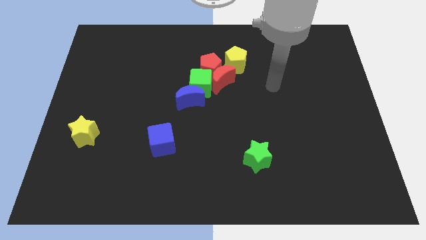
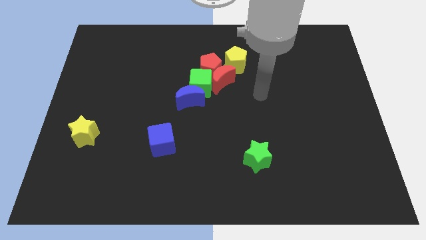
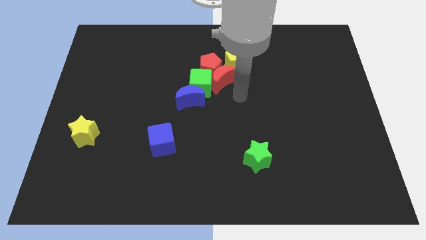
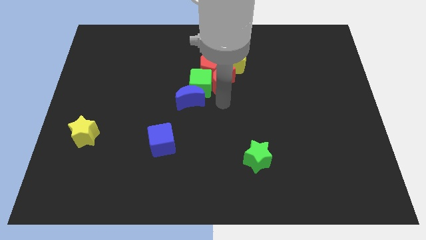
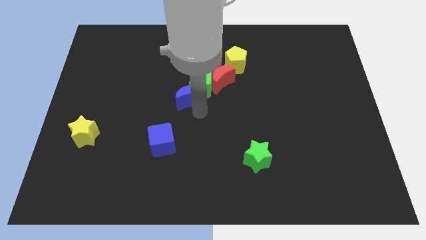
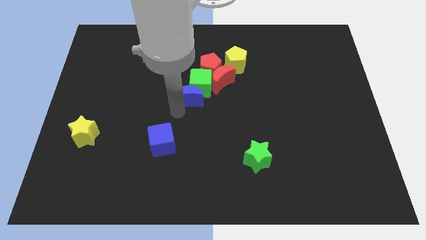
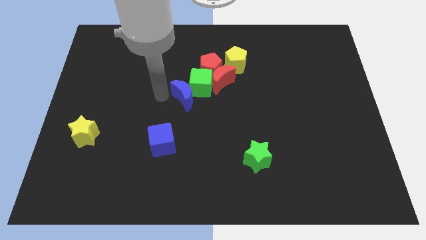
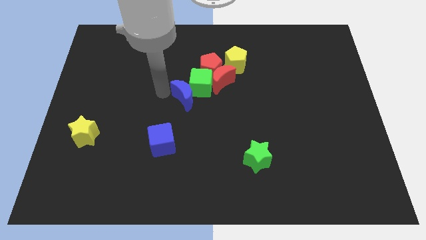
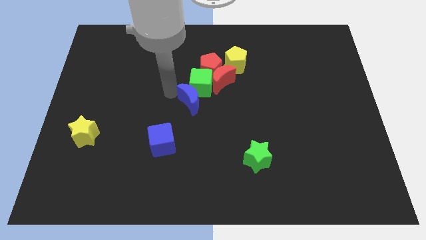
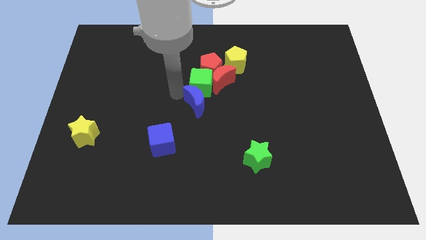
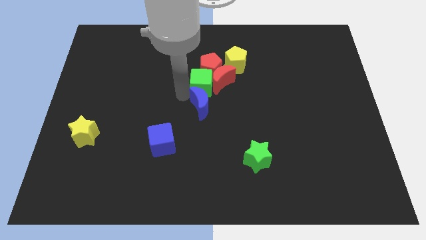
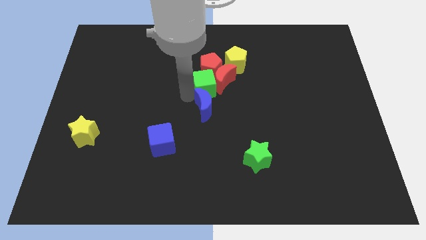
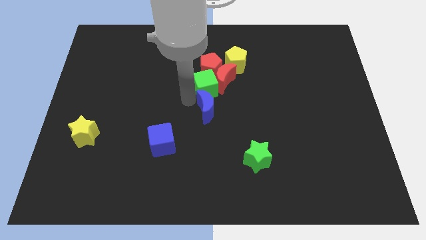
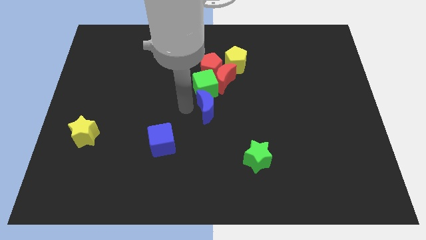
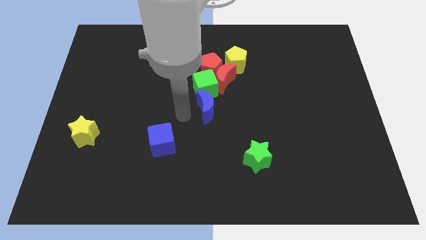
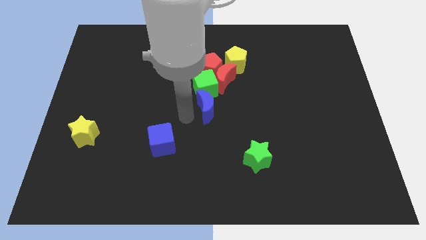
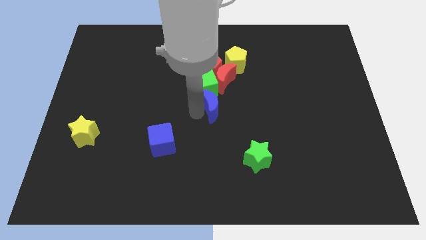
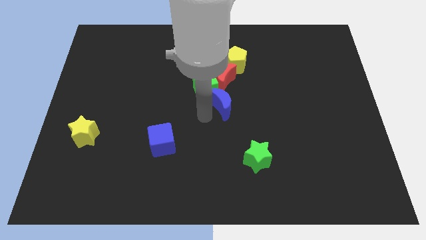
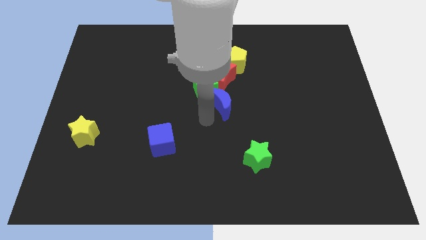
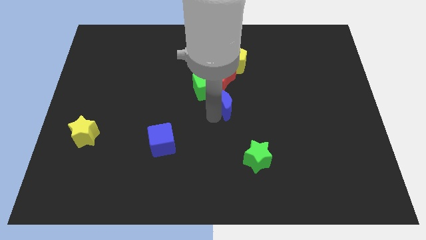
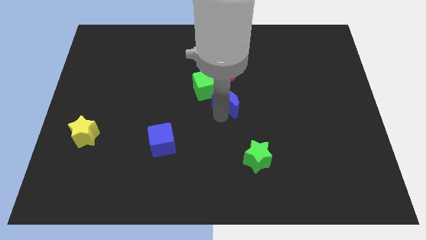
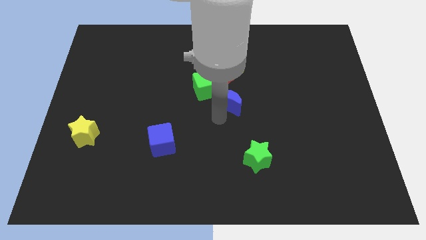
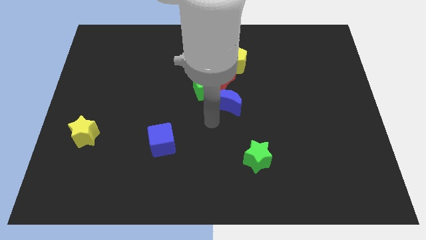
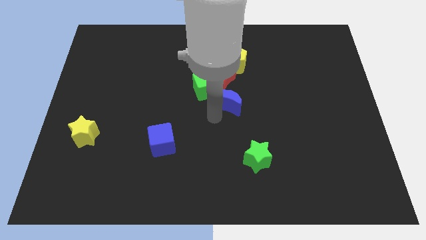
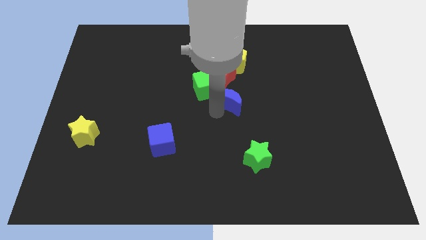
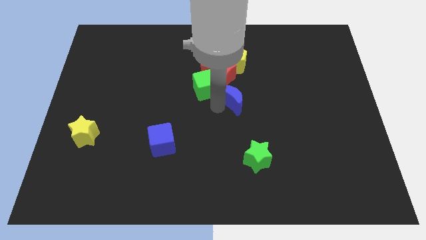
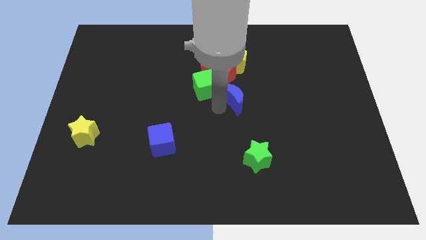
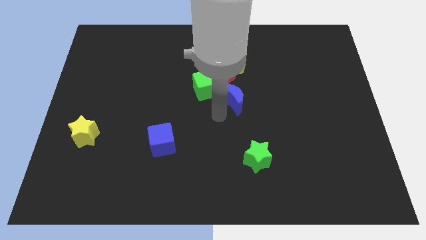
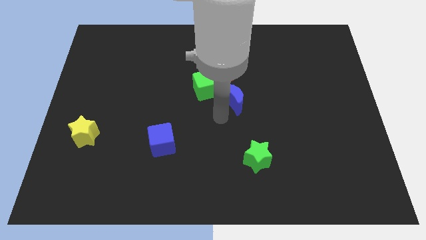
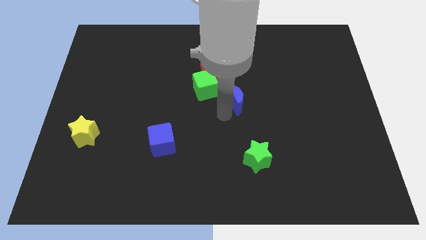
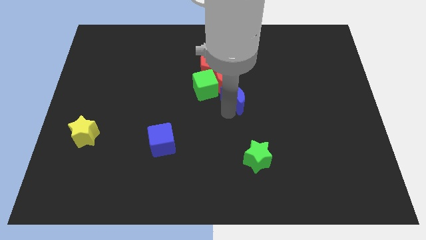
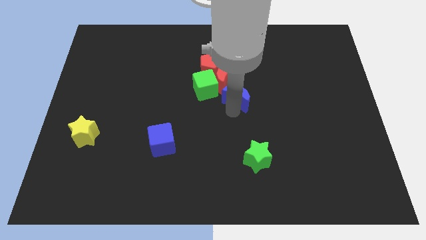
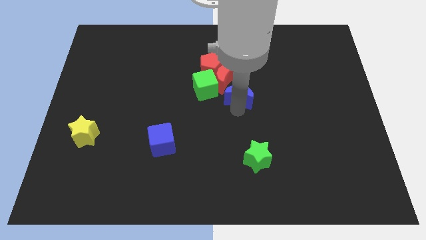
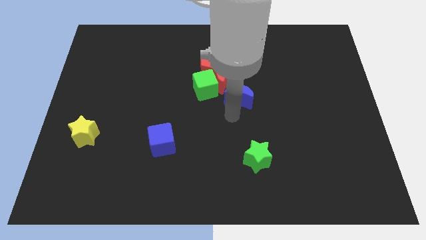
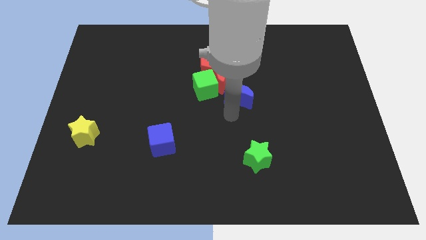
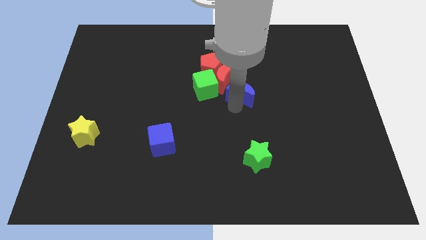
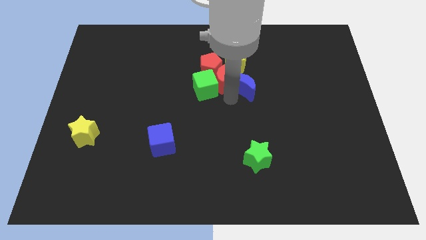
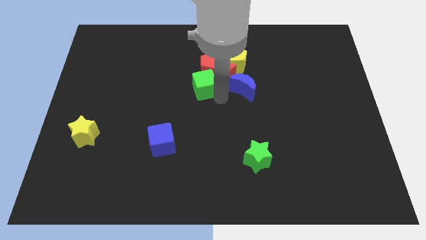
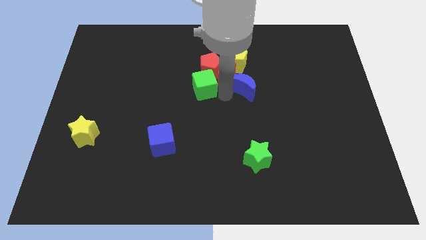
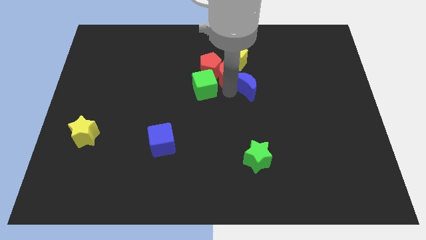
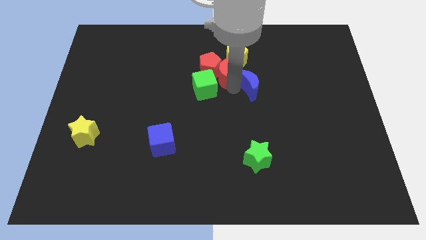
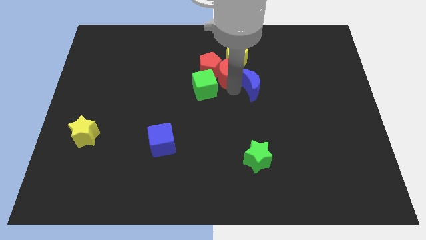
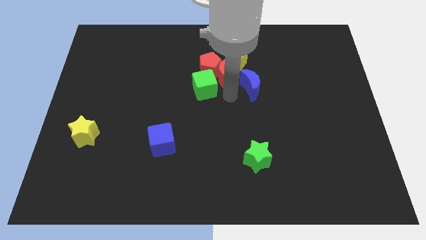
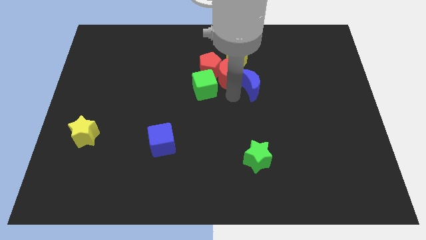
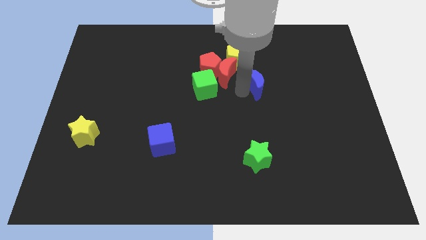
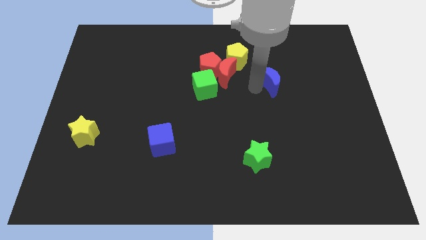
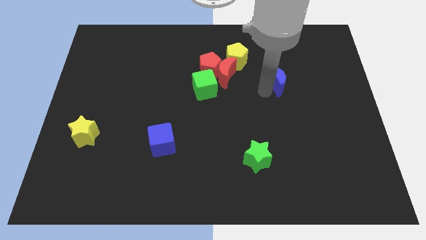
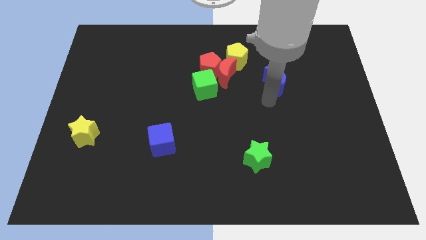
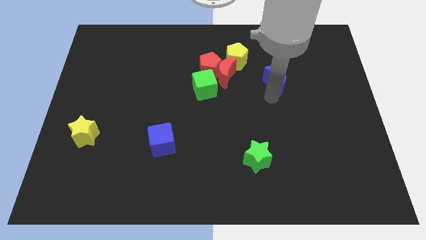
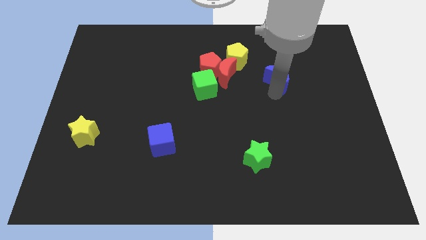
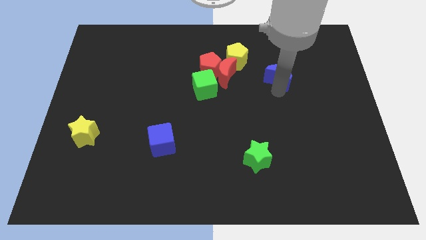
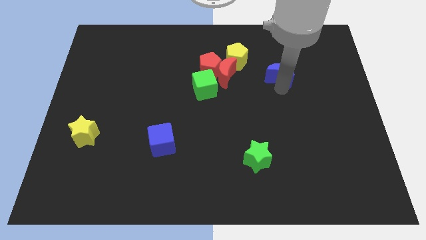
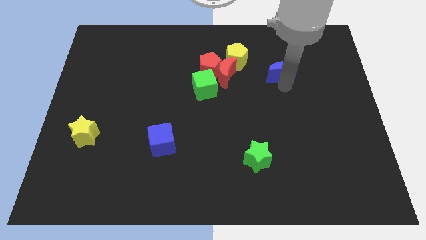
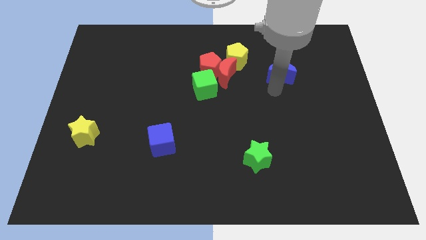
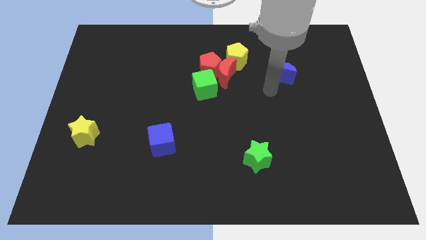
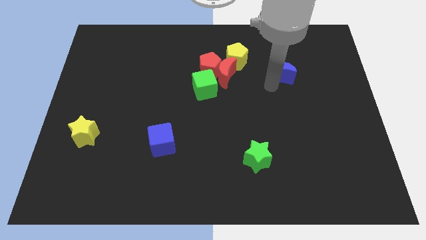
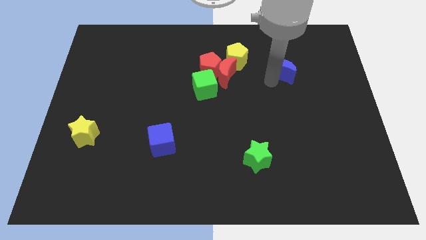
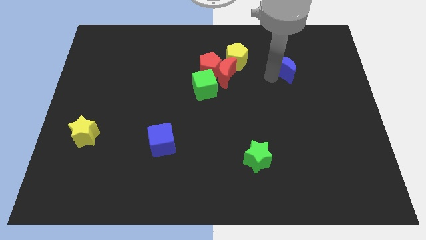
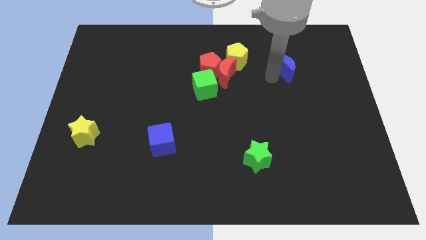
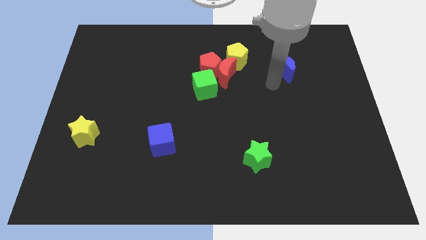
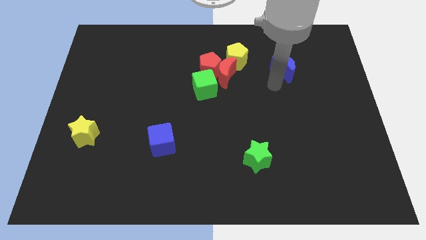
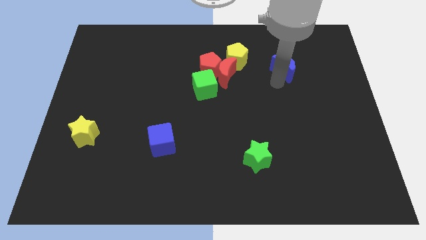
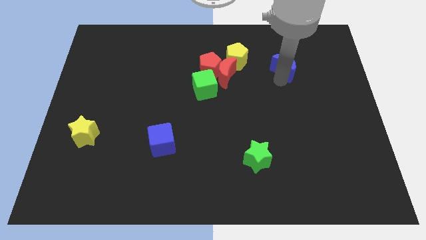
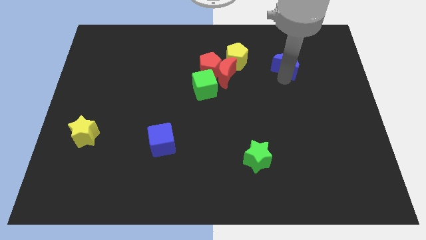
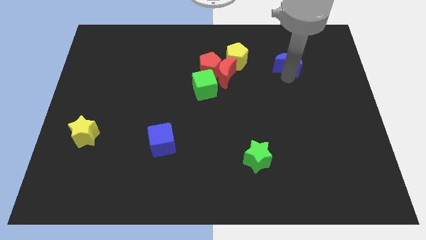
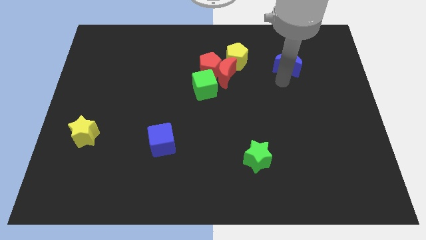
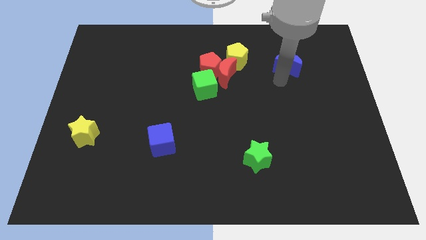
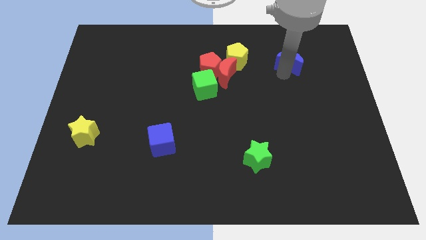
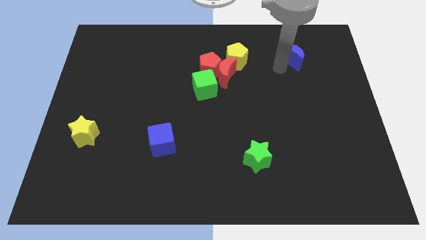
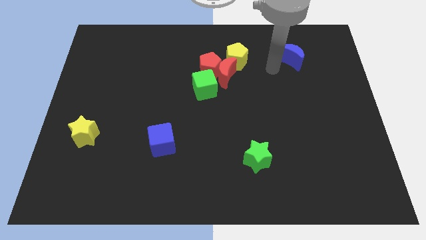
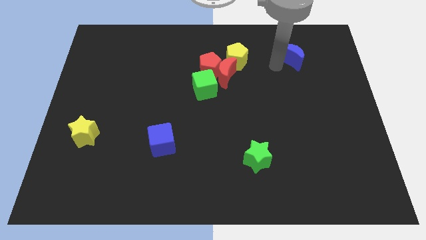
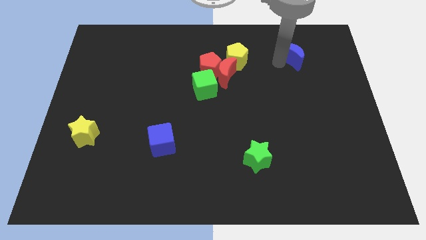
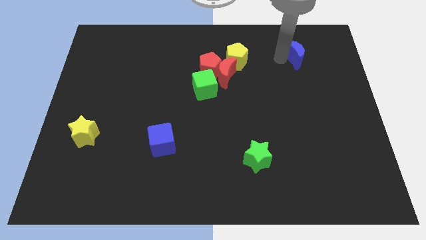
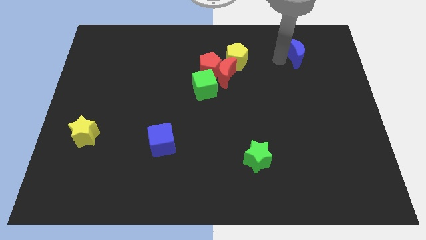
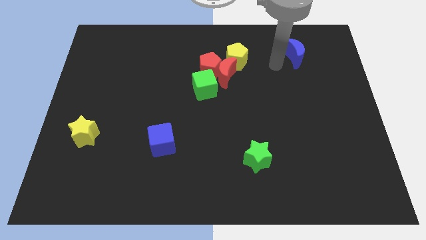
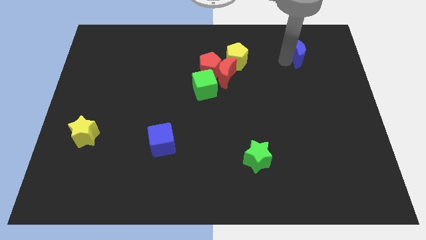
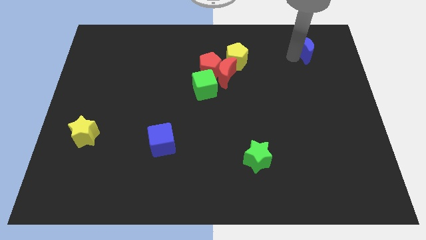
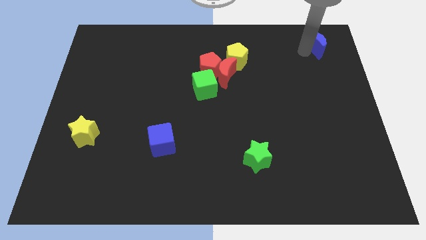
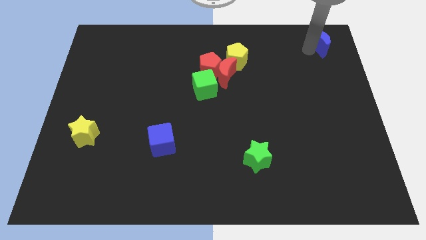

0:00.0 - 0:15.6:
put the blue moon to the top right corner
